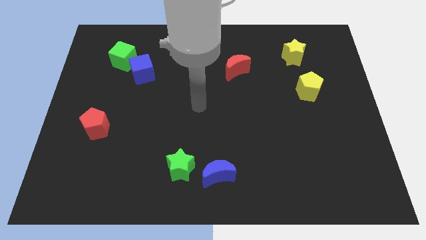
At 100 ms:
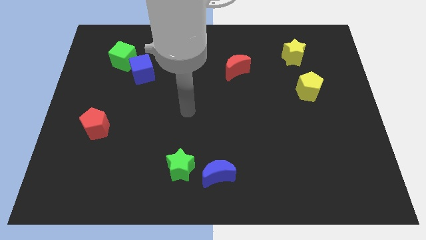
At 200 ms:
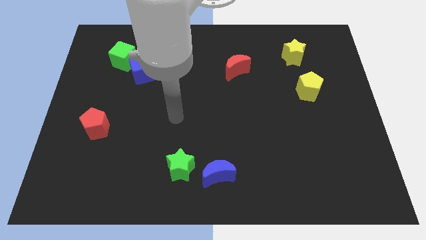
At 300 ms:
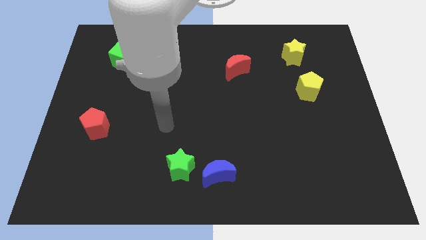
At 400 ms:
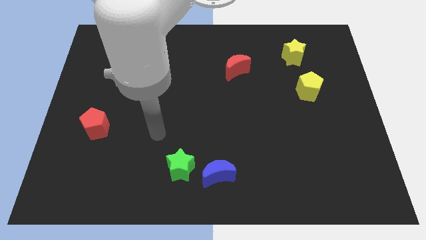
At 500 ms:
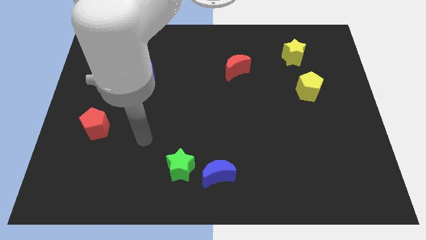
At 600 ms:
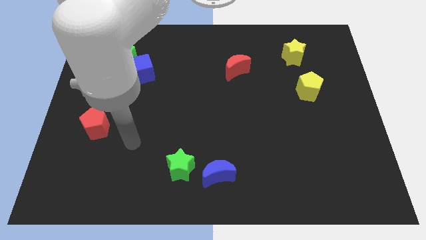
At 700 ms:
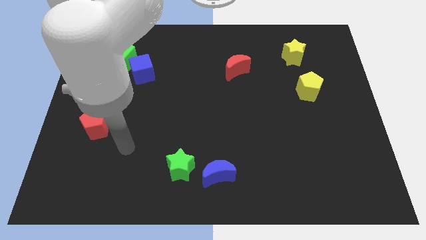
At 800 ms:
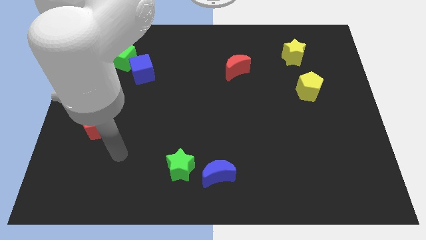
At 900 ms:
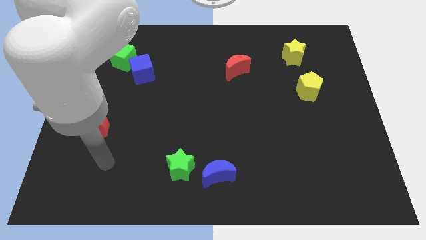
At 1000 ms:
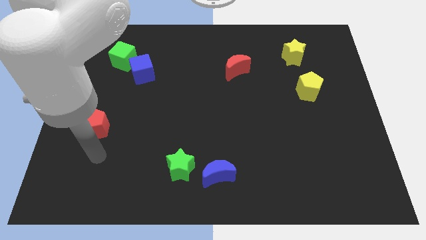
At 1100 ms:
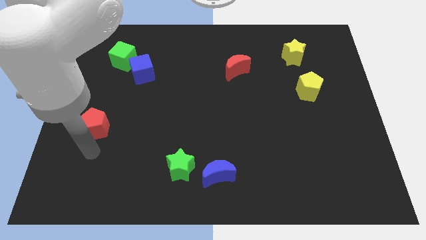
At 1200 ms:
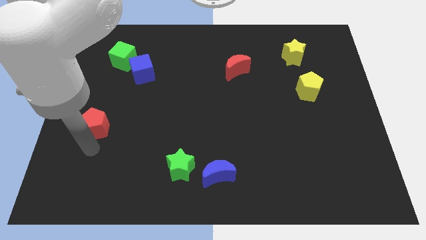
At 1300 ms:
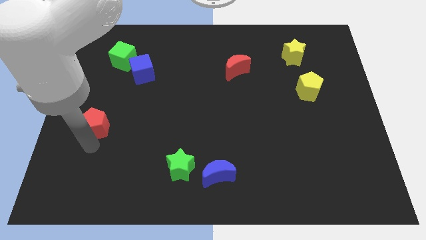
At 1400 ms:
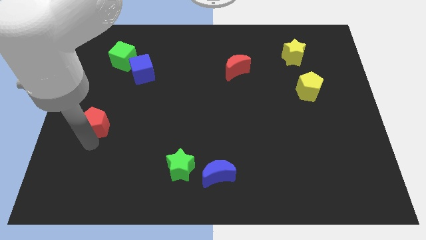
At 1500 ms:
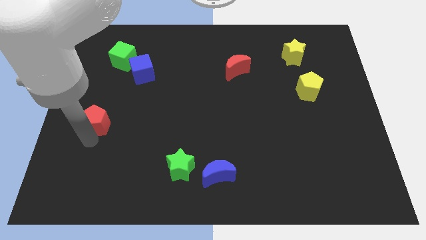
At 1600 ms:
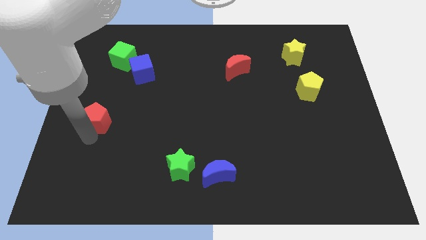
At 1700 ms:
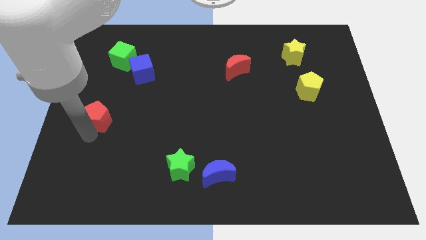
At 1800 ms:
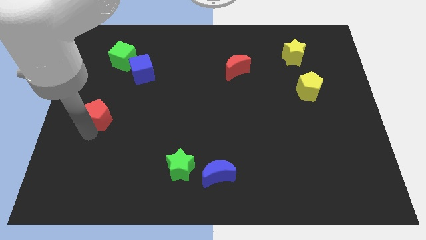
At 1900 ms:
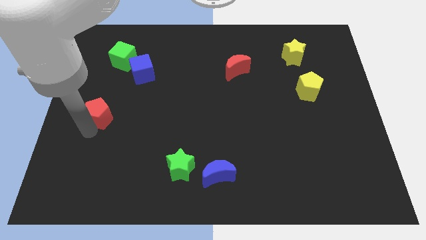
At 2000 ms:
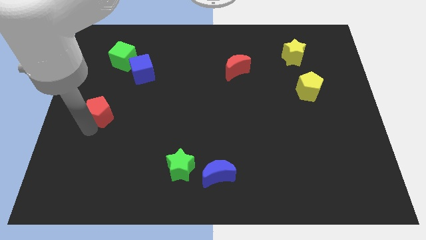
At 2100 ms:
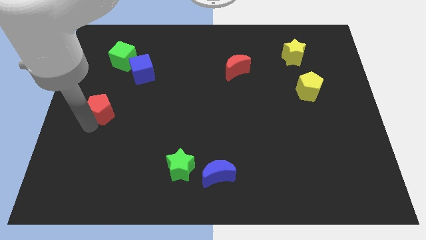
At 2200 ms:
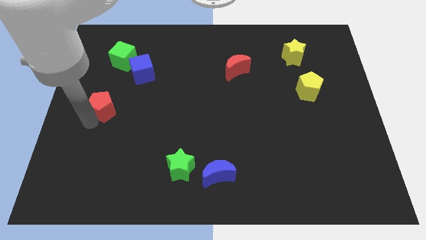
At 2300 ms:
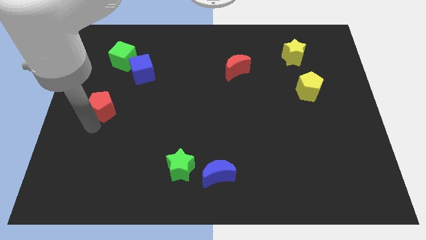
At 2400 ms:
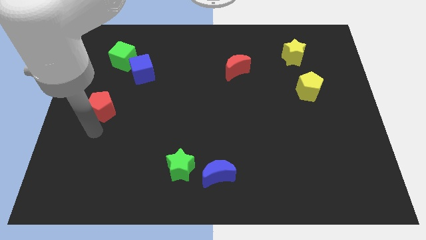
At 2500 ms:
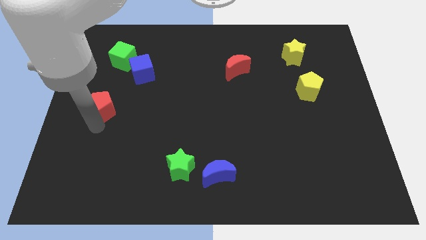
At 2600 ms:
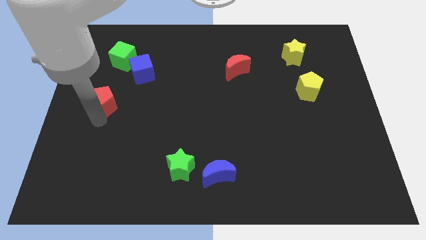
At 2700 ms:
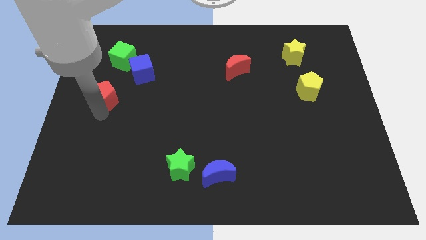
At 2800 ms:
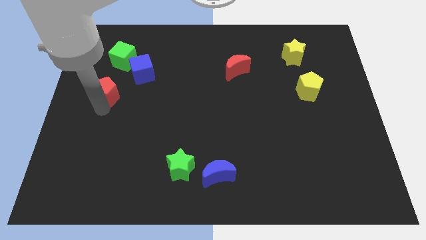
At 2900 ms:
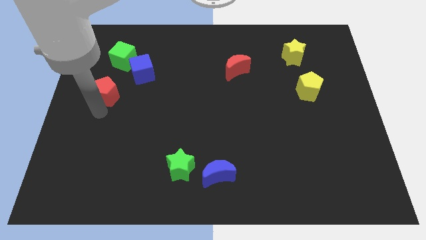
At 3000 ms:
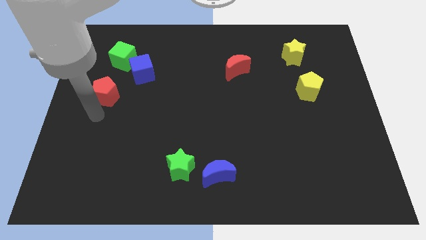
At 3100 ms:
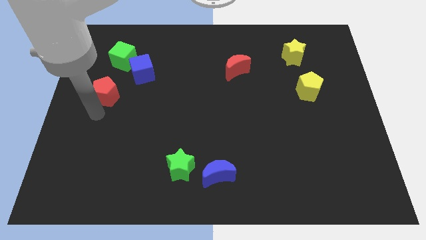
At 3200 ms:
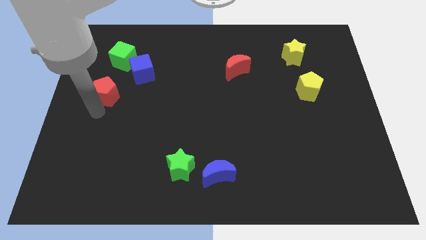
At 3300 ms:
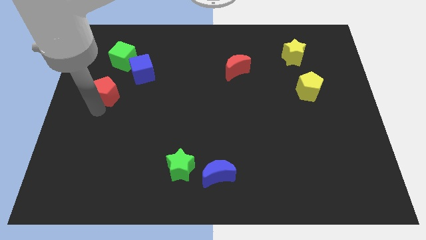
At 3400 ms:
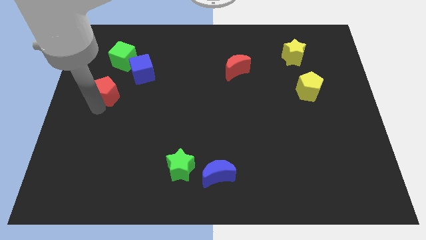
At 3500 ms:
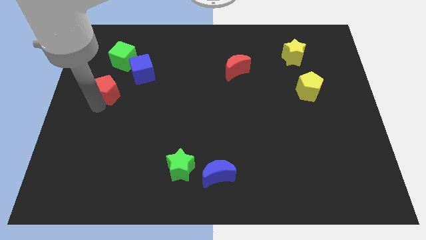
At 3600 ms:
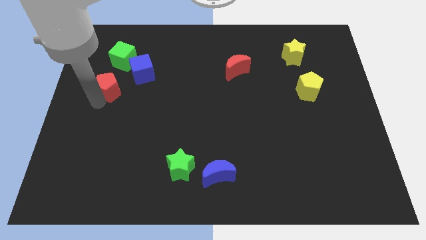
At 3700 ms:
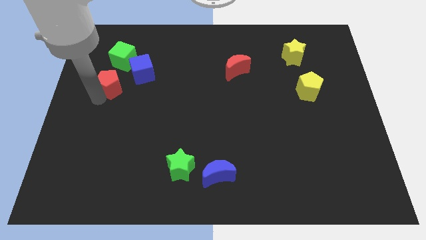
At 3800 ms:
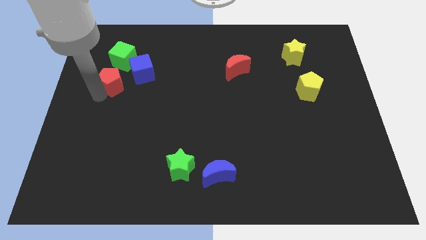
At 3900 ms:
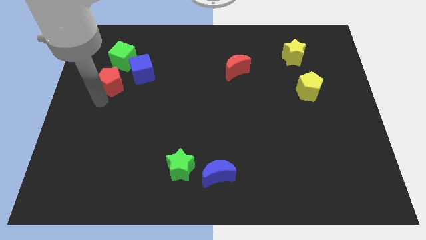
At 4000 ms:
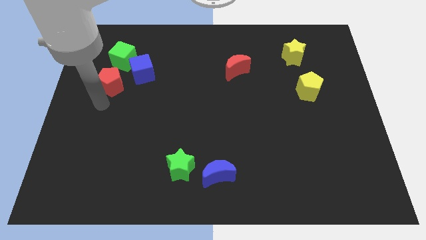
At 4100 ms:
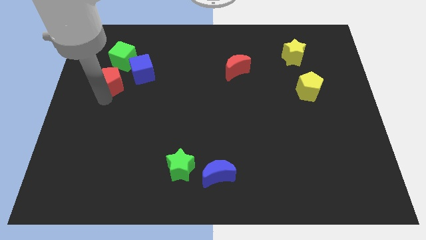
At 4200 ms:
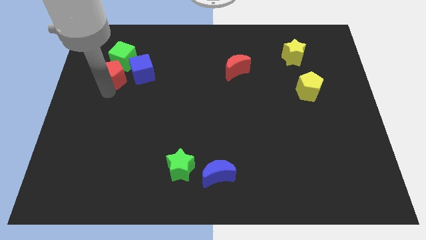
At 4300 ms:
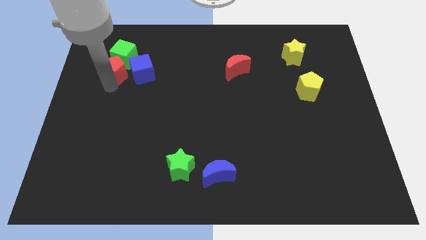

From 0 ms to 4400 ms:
push the red pentagon close to the green cube

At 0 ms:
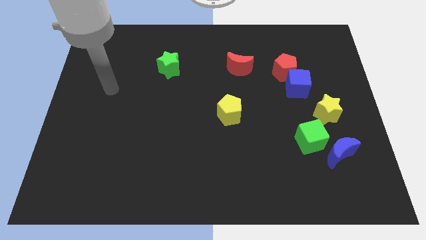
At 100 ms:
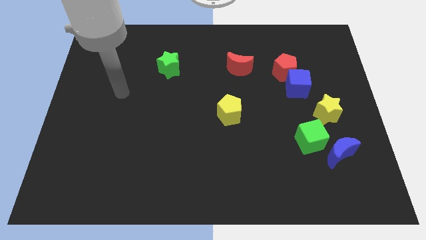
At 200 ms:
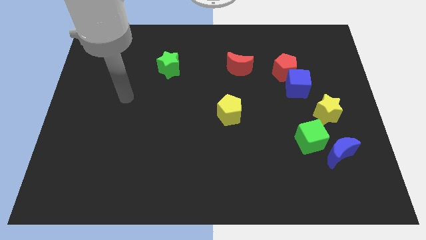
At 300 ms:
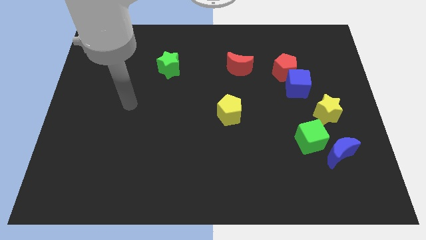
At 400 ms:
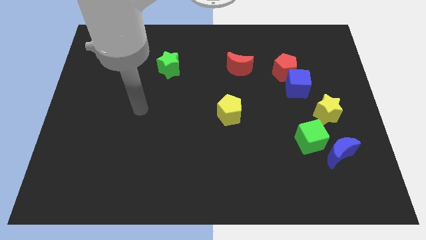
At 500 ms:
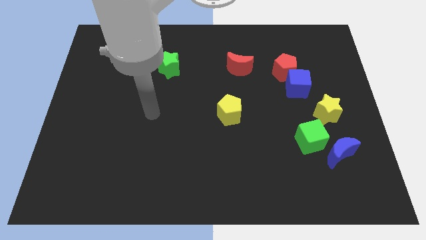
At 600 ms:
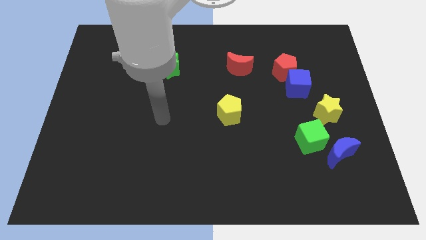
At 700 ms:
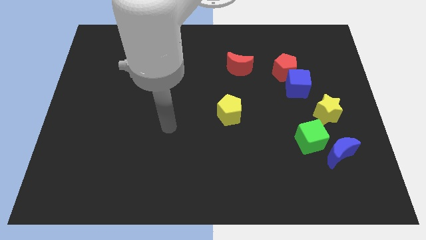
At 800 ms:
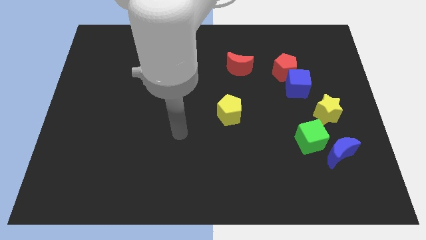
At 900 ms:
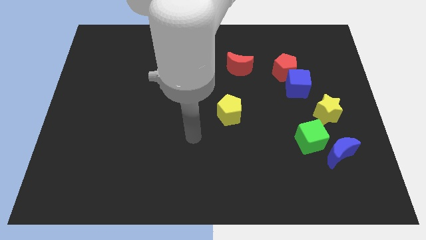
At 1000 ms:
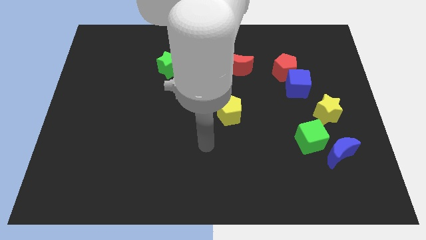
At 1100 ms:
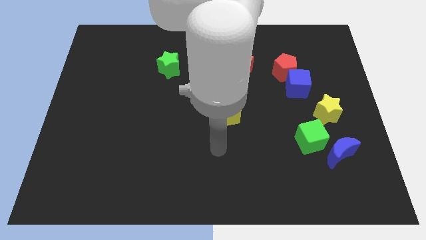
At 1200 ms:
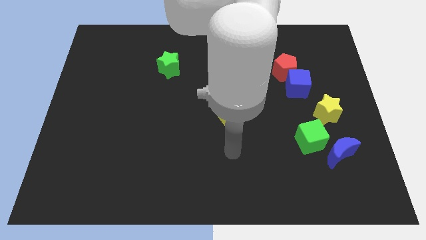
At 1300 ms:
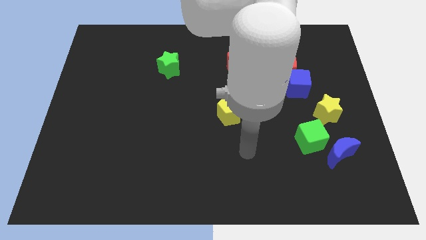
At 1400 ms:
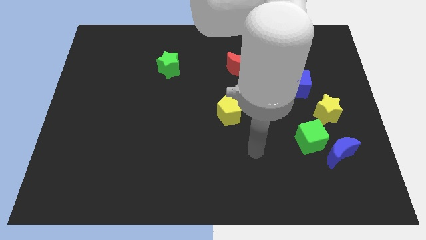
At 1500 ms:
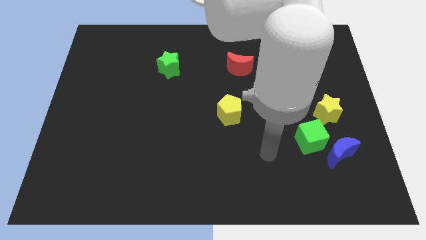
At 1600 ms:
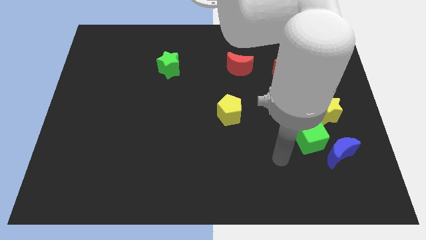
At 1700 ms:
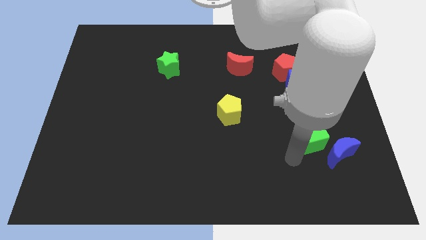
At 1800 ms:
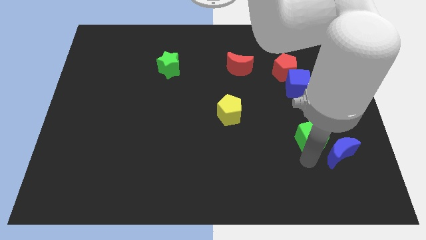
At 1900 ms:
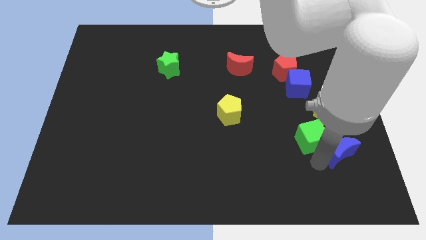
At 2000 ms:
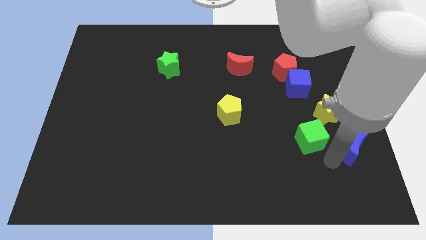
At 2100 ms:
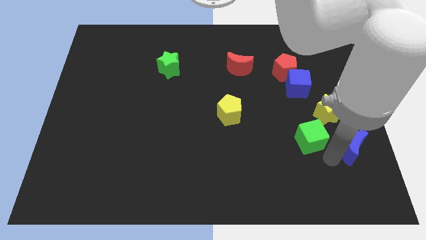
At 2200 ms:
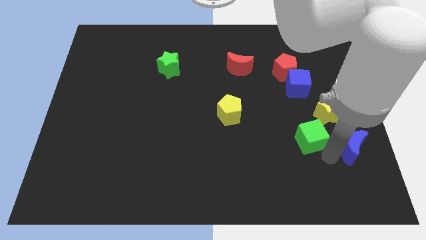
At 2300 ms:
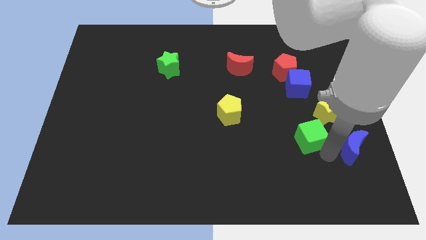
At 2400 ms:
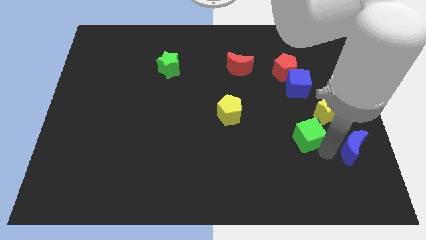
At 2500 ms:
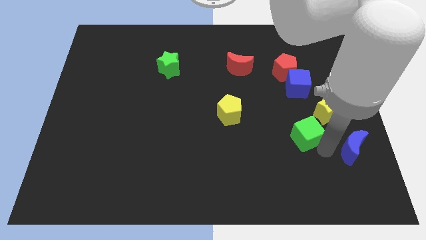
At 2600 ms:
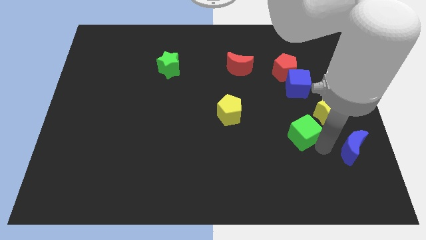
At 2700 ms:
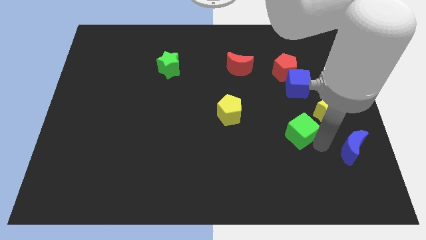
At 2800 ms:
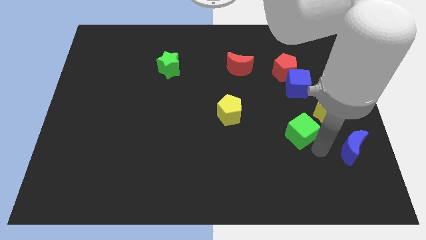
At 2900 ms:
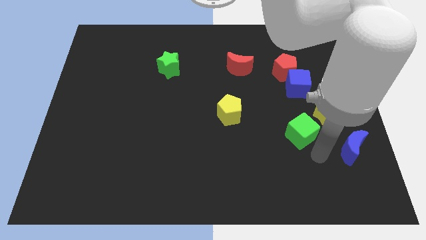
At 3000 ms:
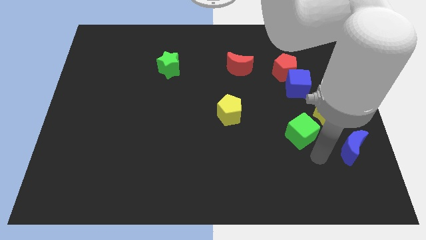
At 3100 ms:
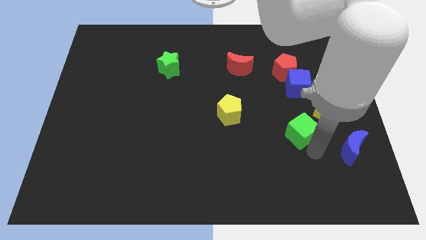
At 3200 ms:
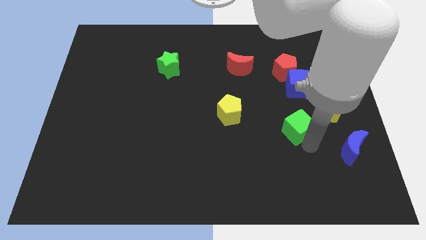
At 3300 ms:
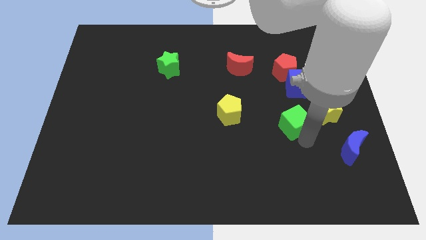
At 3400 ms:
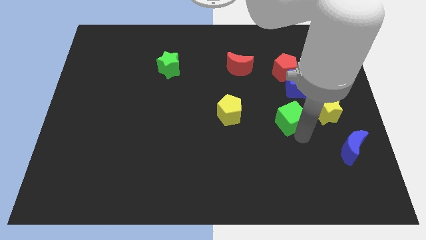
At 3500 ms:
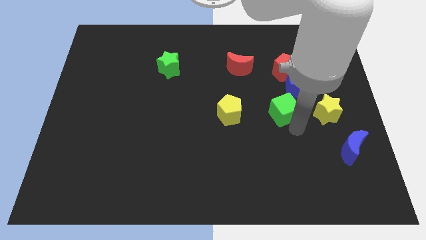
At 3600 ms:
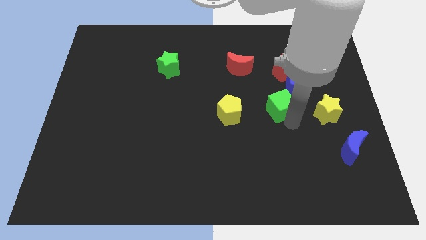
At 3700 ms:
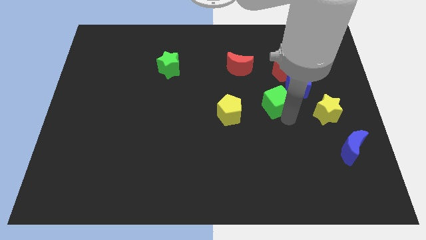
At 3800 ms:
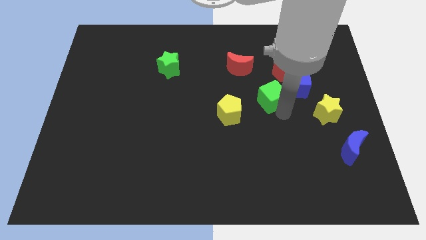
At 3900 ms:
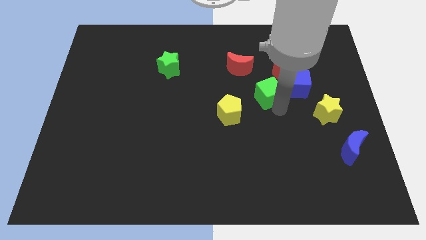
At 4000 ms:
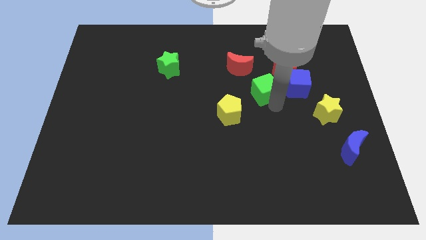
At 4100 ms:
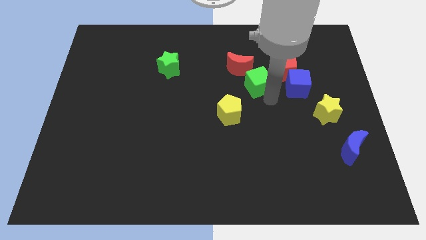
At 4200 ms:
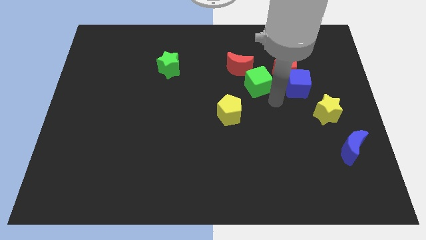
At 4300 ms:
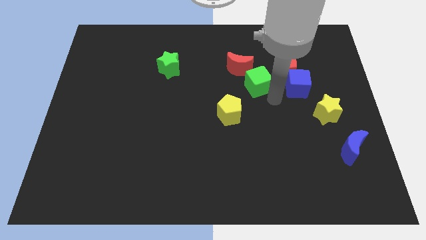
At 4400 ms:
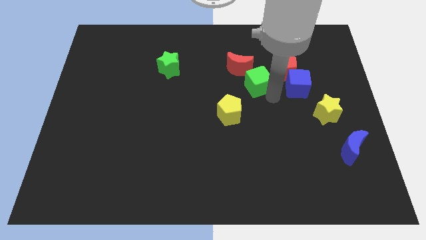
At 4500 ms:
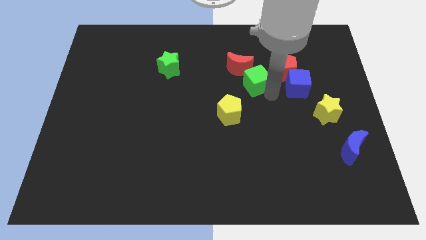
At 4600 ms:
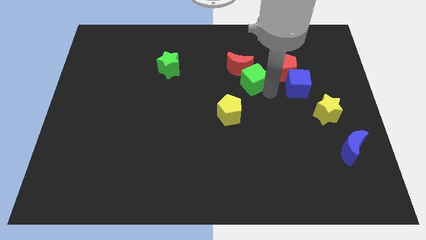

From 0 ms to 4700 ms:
put the green cube close to the red moon
